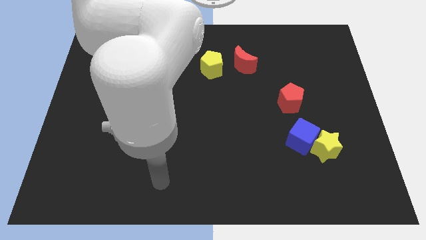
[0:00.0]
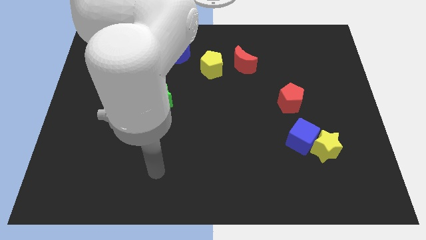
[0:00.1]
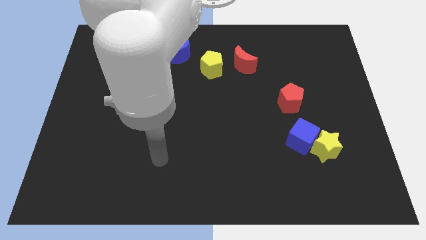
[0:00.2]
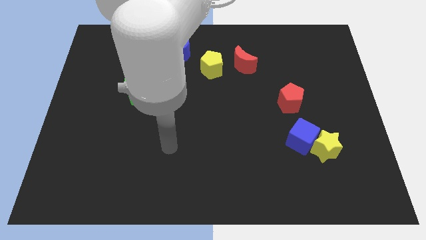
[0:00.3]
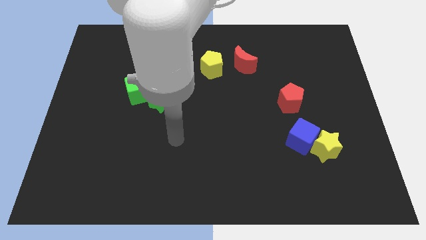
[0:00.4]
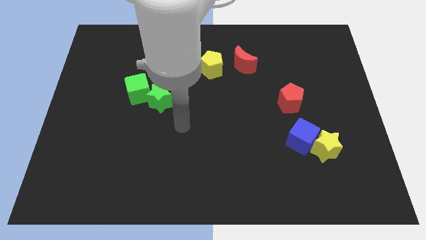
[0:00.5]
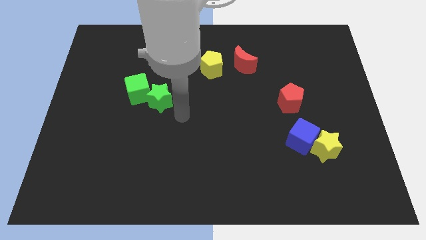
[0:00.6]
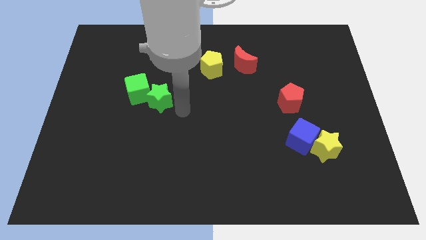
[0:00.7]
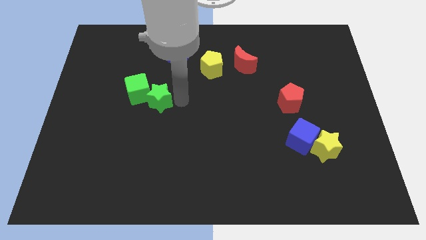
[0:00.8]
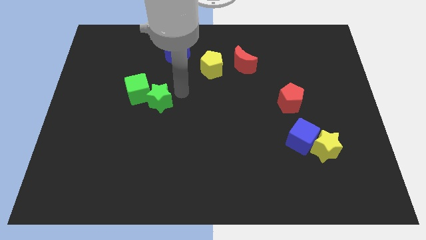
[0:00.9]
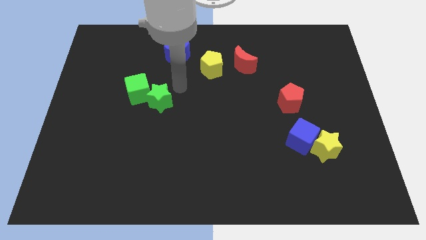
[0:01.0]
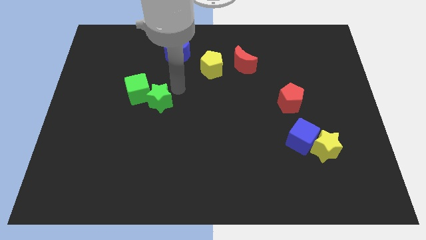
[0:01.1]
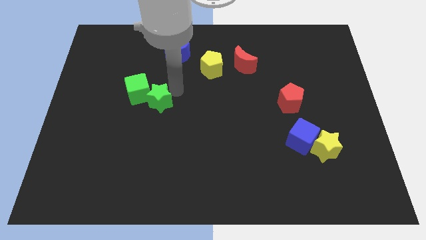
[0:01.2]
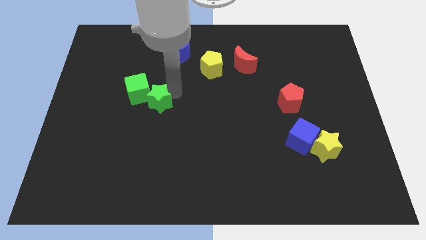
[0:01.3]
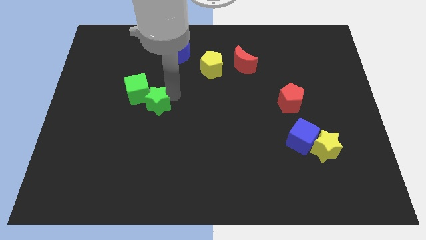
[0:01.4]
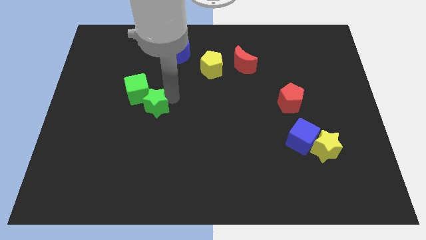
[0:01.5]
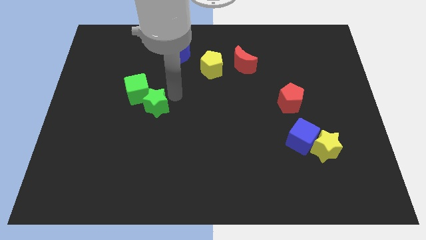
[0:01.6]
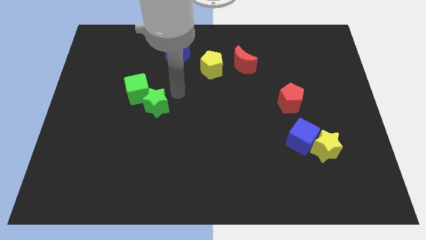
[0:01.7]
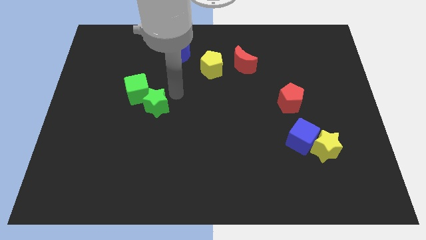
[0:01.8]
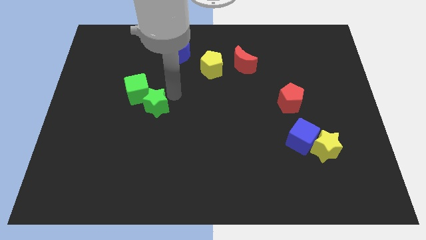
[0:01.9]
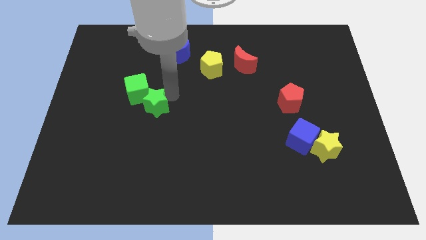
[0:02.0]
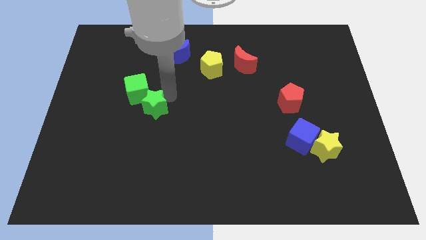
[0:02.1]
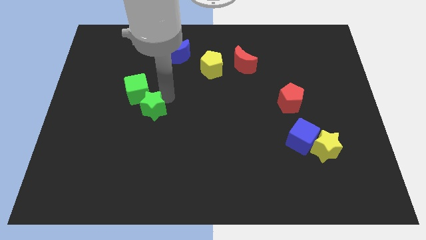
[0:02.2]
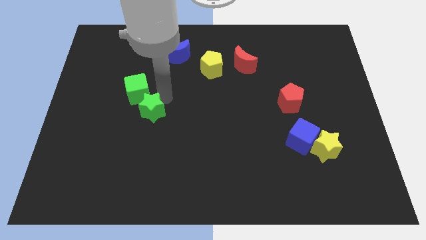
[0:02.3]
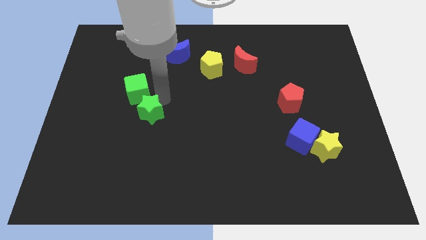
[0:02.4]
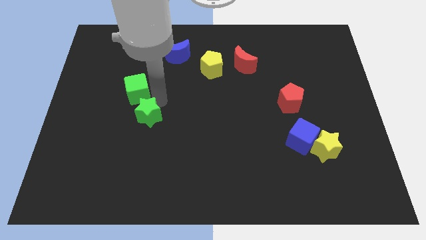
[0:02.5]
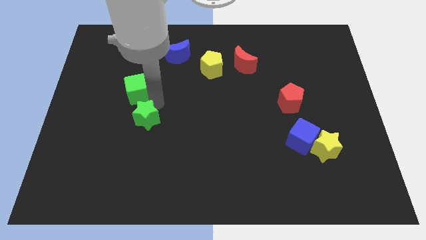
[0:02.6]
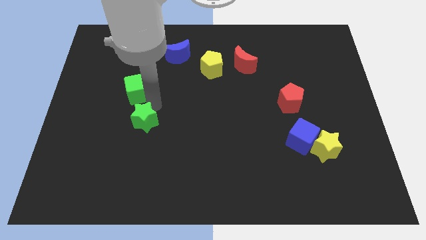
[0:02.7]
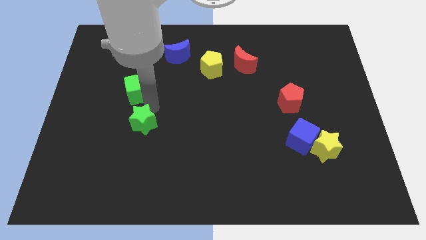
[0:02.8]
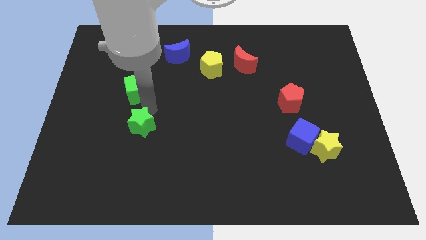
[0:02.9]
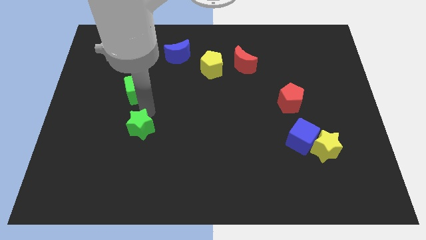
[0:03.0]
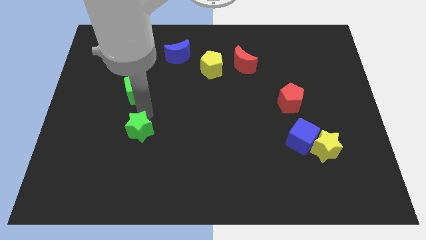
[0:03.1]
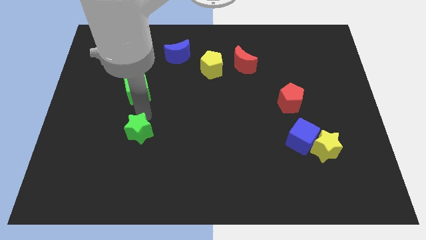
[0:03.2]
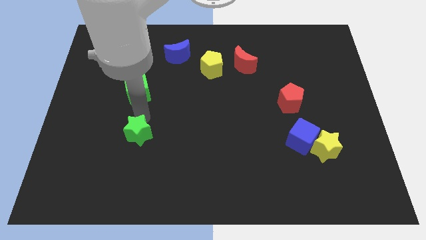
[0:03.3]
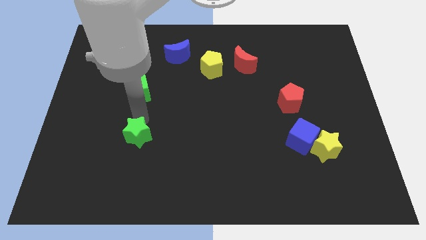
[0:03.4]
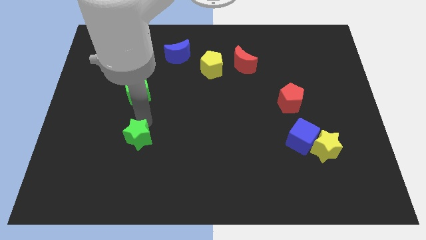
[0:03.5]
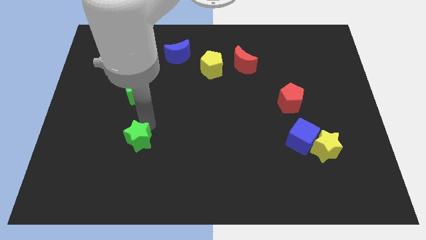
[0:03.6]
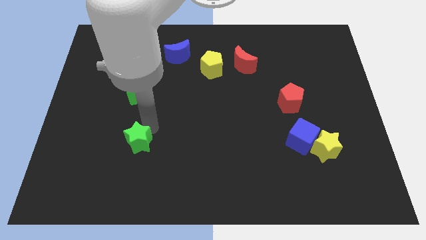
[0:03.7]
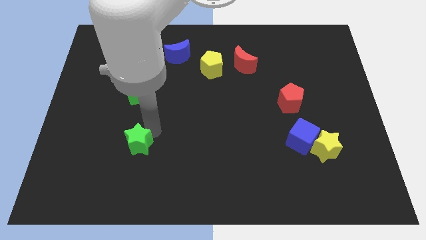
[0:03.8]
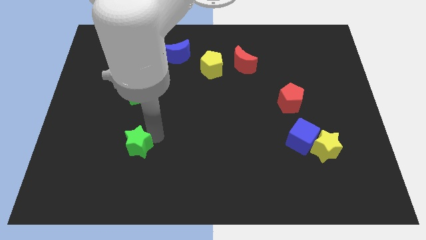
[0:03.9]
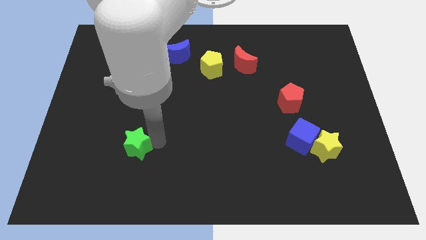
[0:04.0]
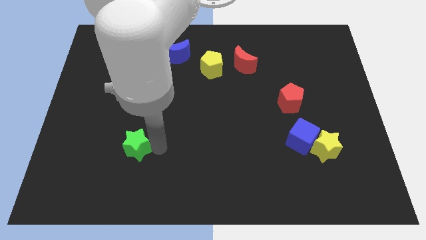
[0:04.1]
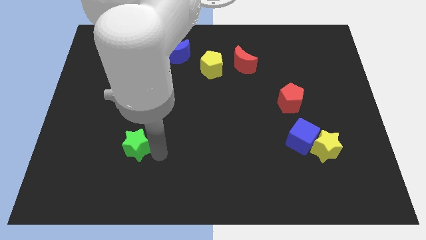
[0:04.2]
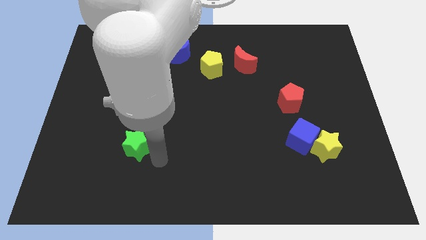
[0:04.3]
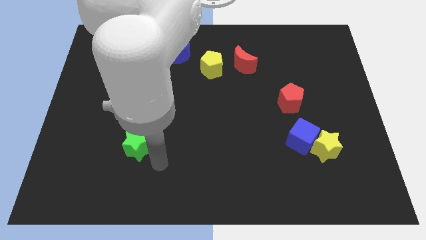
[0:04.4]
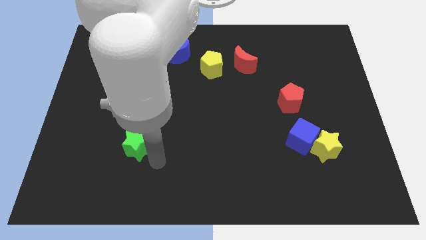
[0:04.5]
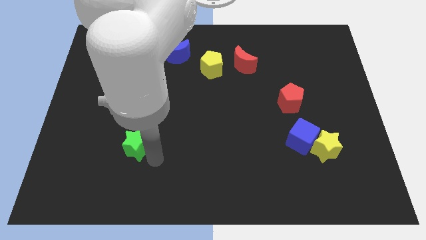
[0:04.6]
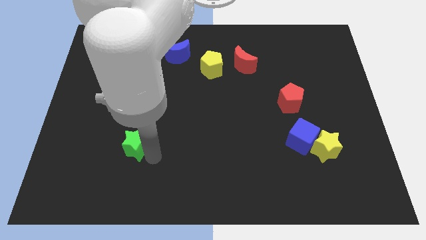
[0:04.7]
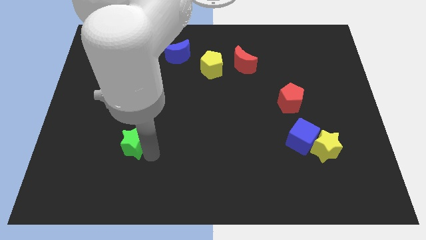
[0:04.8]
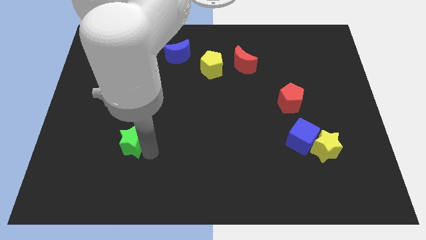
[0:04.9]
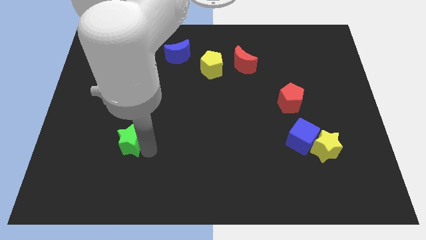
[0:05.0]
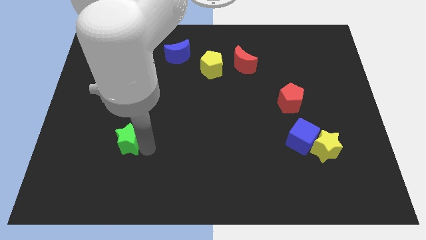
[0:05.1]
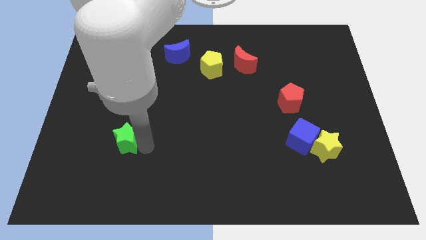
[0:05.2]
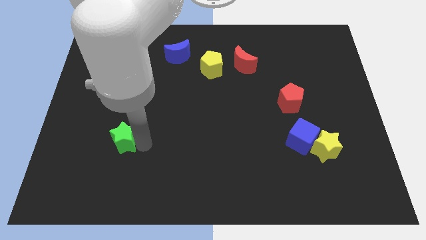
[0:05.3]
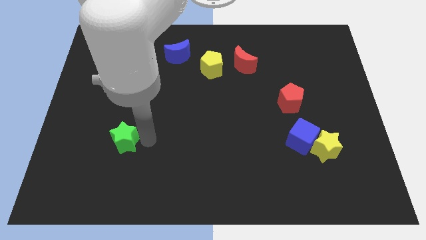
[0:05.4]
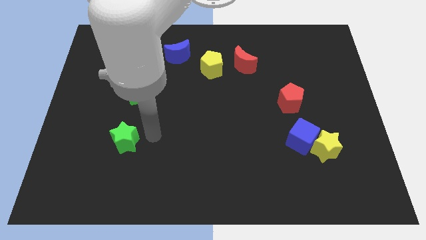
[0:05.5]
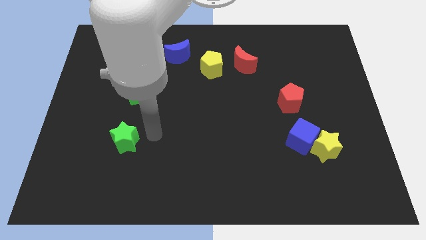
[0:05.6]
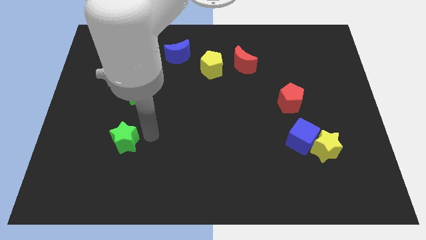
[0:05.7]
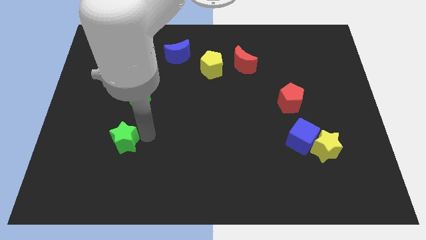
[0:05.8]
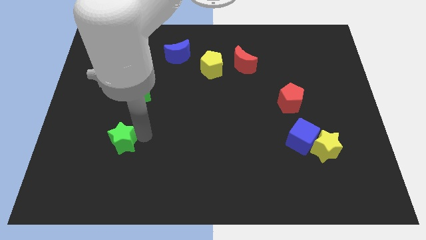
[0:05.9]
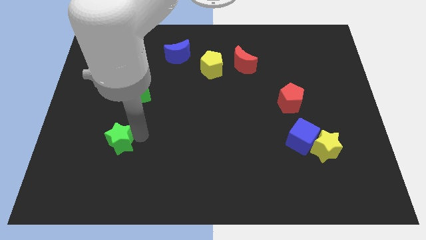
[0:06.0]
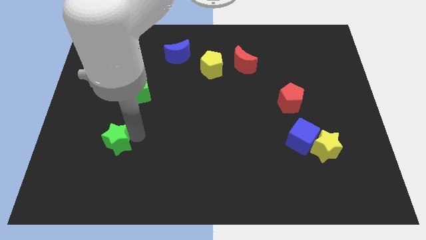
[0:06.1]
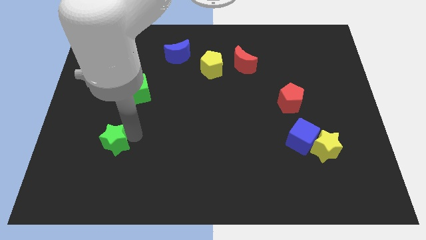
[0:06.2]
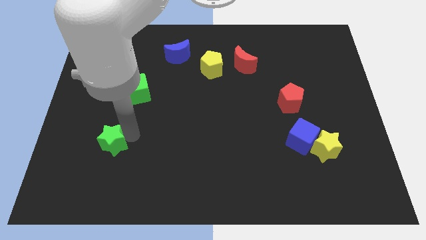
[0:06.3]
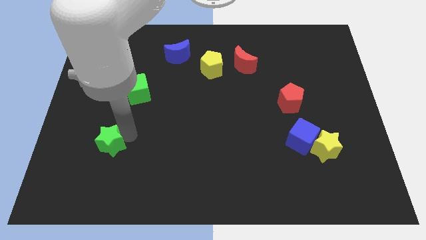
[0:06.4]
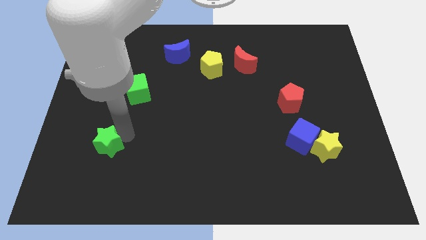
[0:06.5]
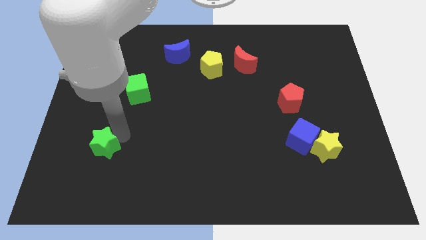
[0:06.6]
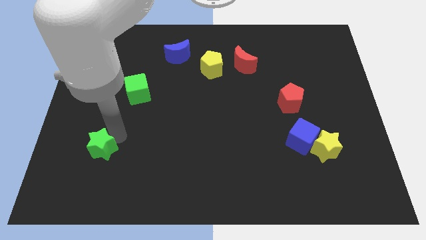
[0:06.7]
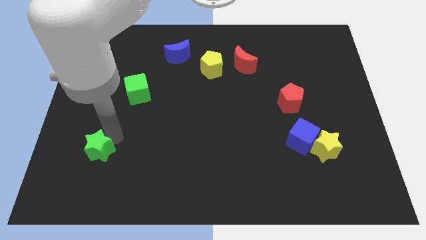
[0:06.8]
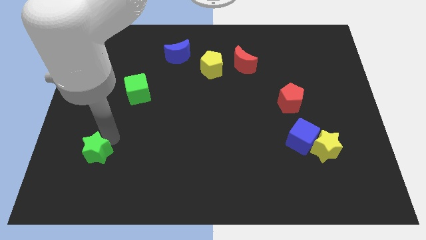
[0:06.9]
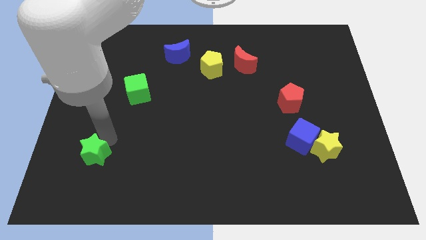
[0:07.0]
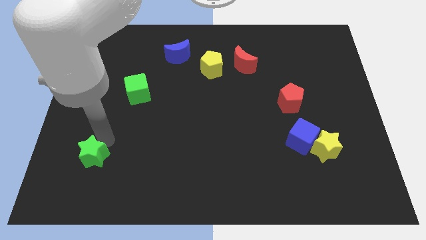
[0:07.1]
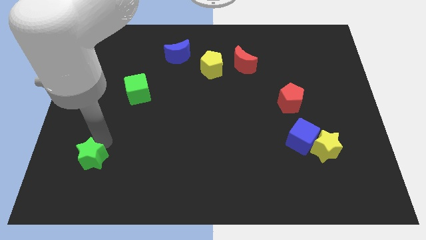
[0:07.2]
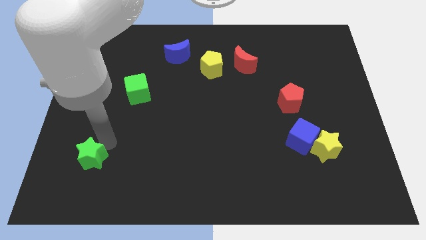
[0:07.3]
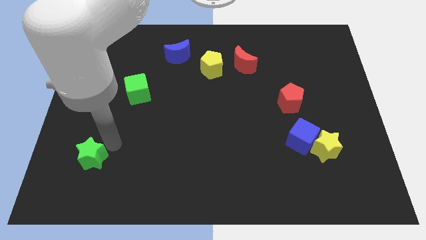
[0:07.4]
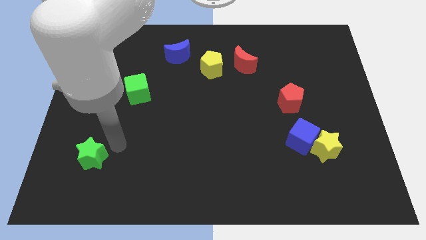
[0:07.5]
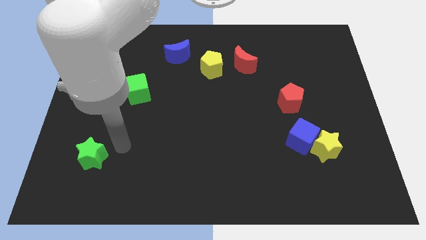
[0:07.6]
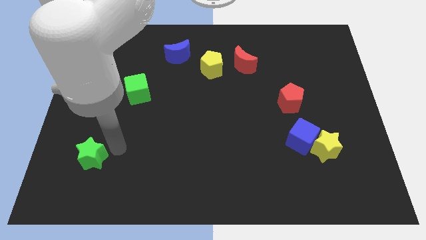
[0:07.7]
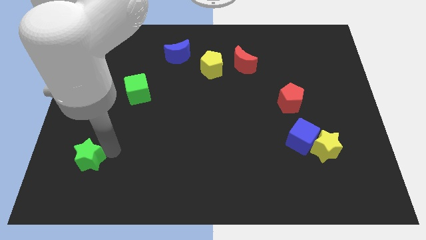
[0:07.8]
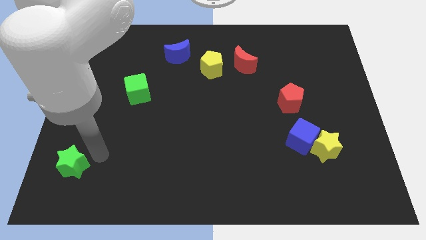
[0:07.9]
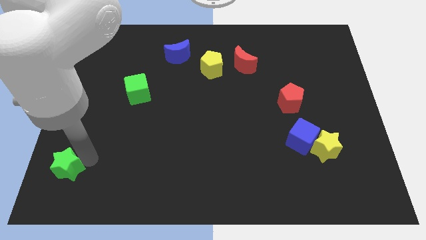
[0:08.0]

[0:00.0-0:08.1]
slide the green star to the bottom left corner
